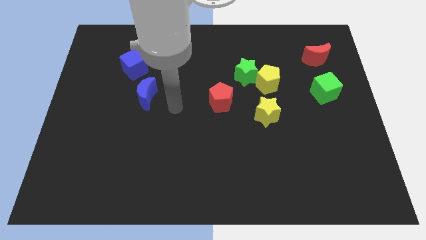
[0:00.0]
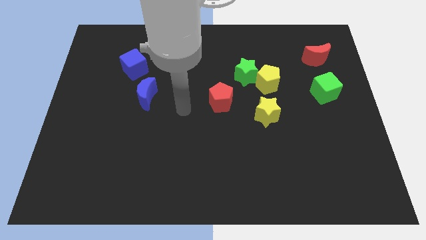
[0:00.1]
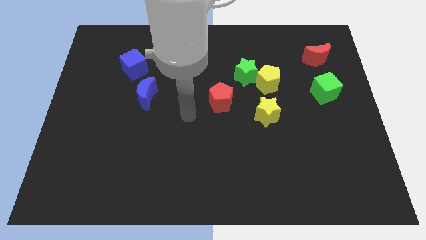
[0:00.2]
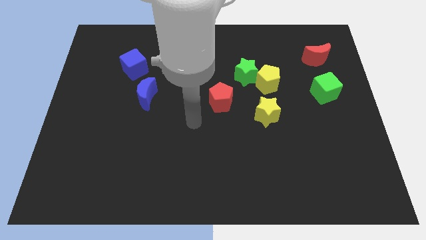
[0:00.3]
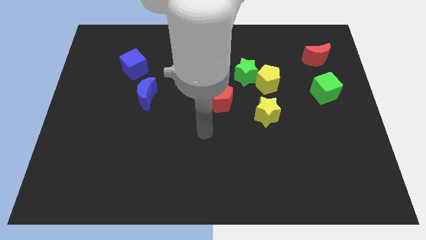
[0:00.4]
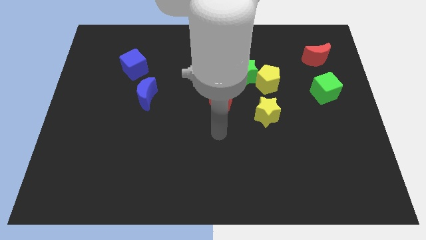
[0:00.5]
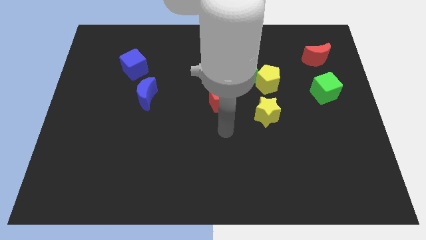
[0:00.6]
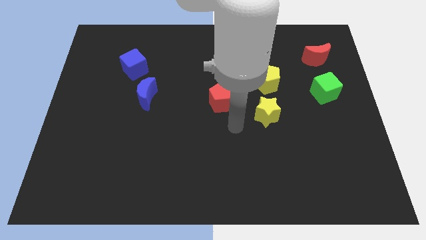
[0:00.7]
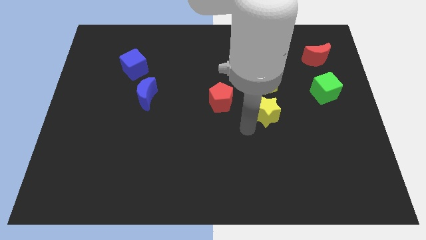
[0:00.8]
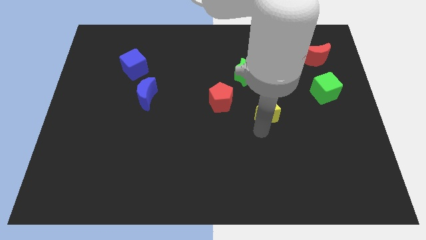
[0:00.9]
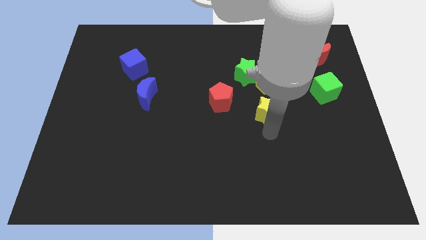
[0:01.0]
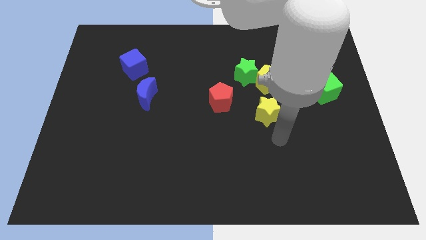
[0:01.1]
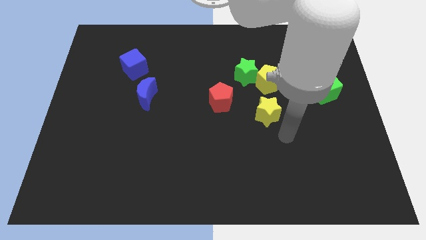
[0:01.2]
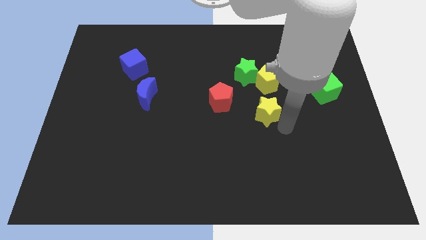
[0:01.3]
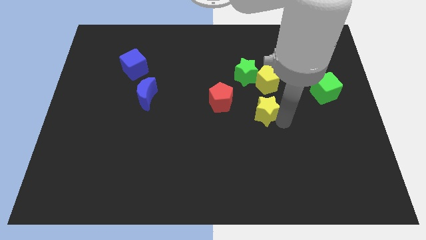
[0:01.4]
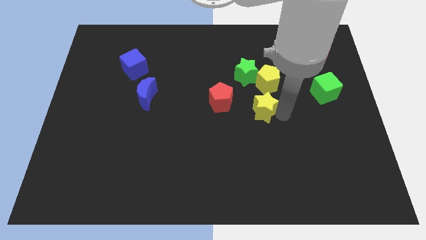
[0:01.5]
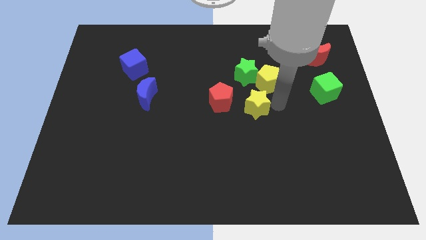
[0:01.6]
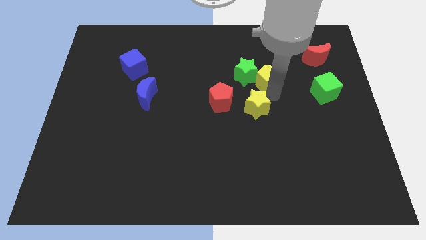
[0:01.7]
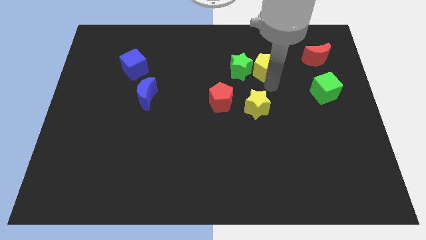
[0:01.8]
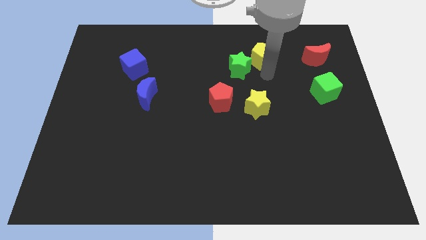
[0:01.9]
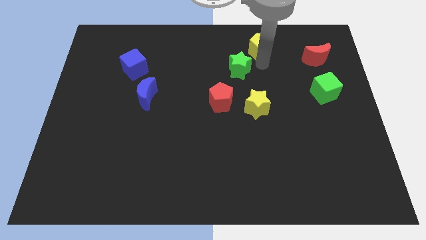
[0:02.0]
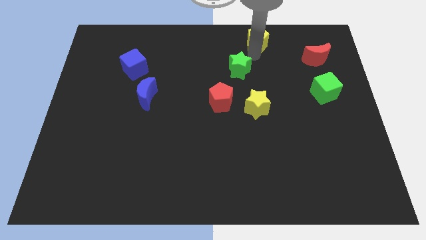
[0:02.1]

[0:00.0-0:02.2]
move the green star away from the yellow pentagon

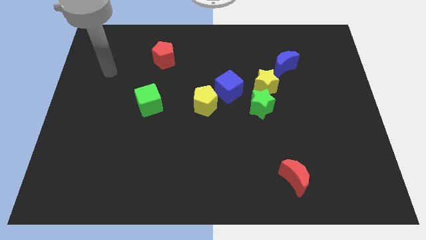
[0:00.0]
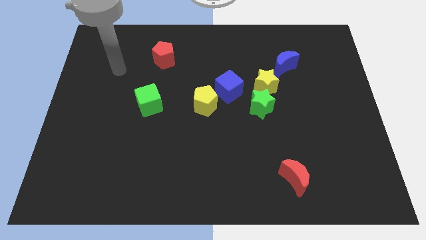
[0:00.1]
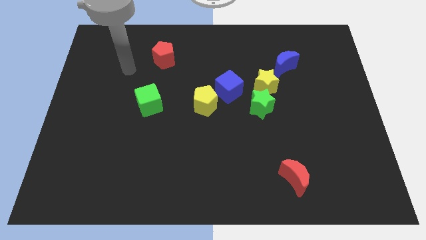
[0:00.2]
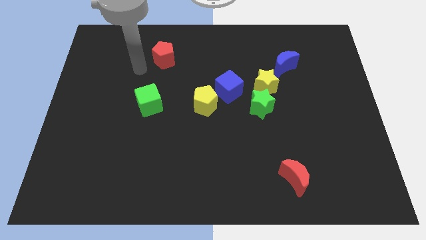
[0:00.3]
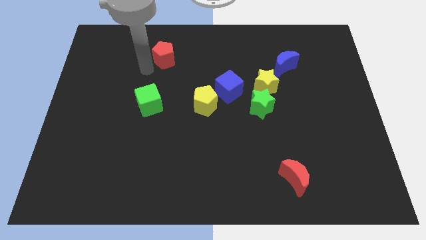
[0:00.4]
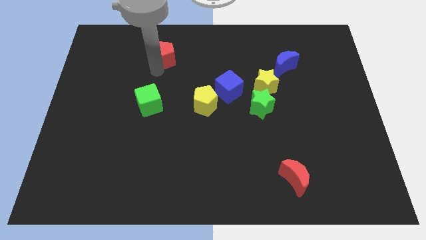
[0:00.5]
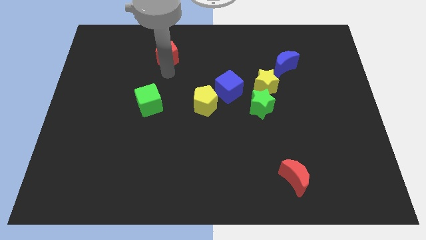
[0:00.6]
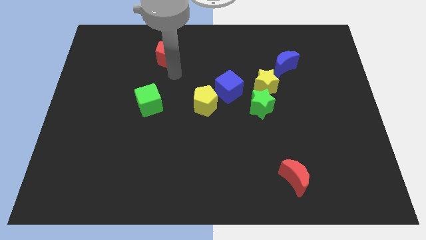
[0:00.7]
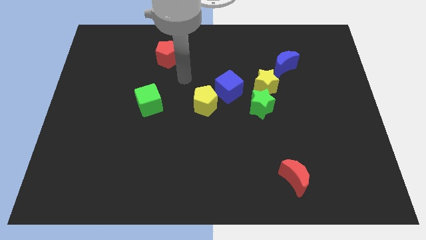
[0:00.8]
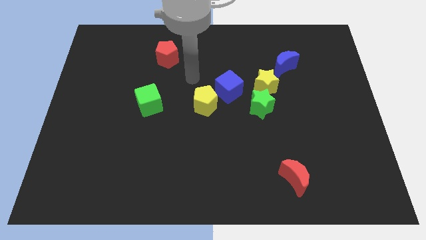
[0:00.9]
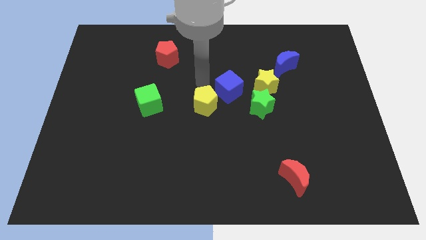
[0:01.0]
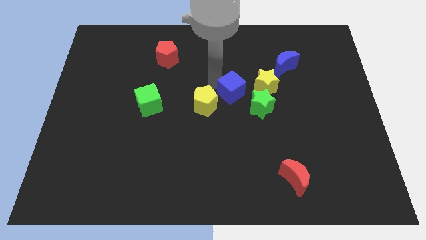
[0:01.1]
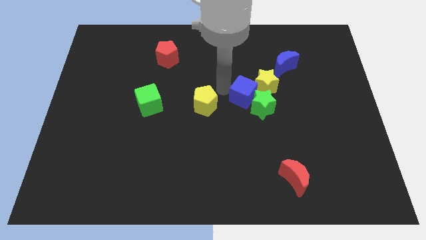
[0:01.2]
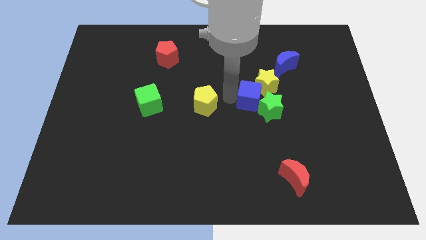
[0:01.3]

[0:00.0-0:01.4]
pull the yellow pentagon apart from the blue cube

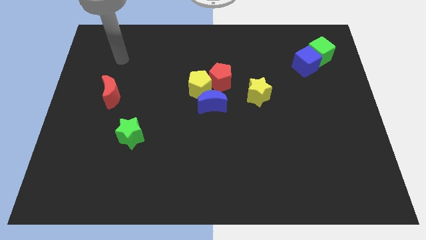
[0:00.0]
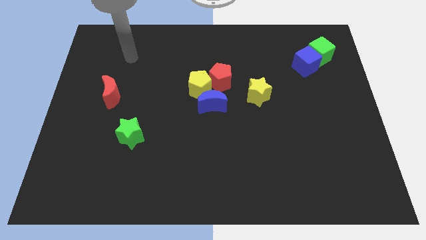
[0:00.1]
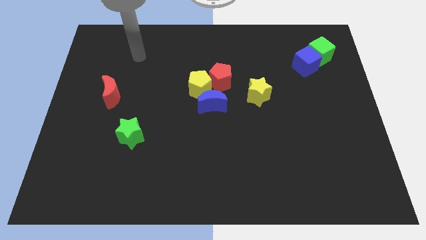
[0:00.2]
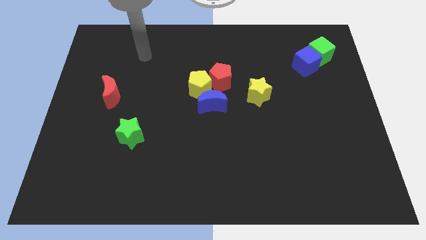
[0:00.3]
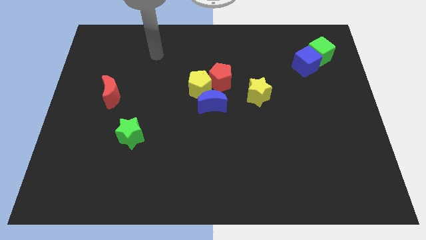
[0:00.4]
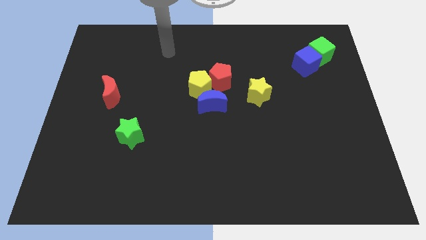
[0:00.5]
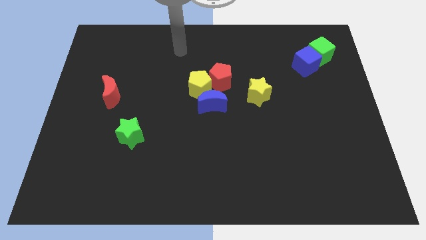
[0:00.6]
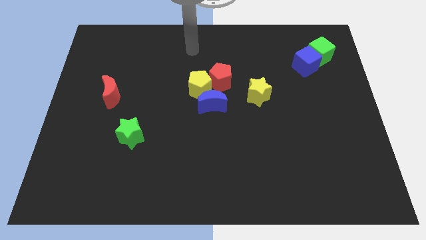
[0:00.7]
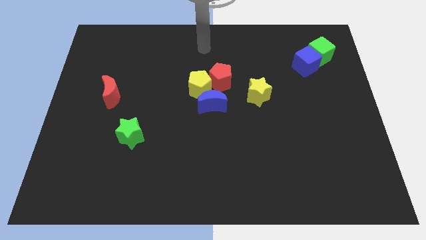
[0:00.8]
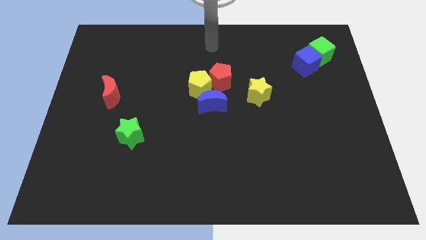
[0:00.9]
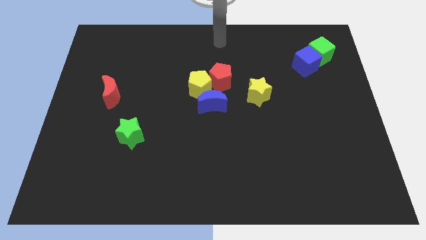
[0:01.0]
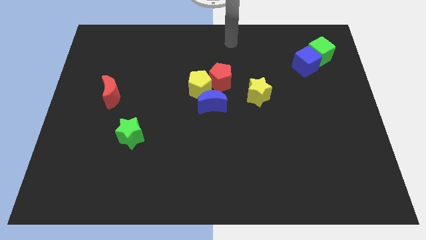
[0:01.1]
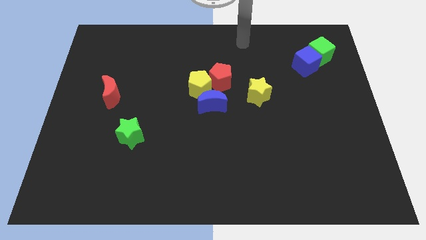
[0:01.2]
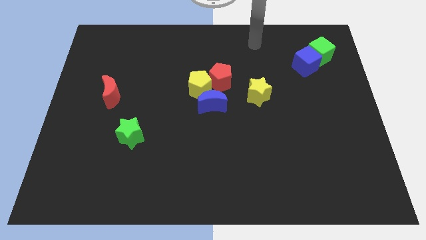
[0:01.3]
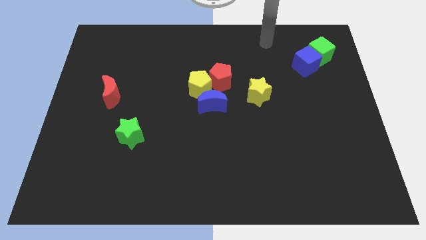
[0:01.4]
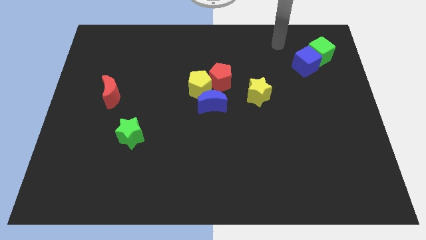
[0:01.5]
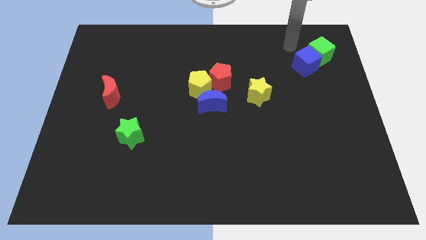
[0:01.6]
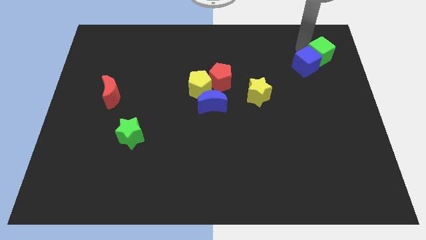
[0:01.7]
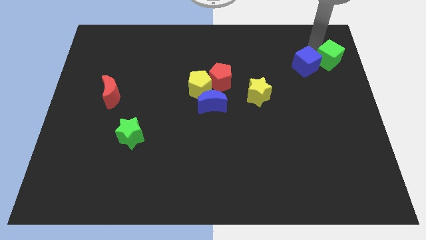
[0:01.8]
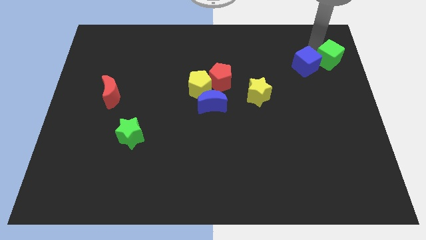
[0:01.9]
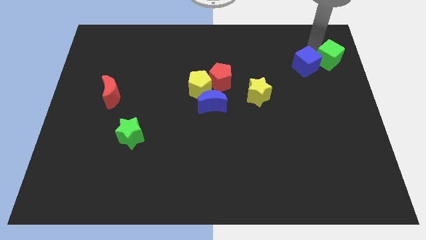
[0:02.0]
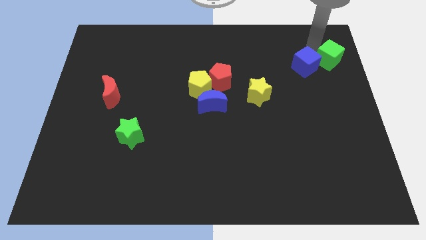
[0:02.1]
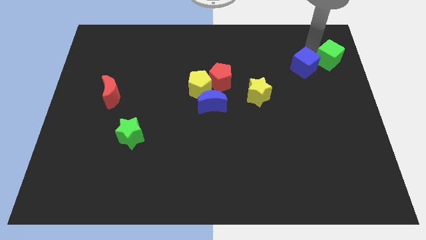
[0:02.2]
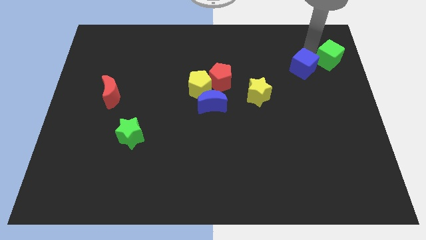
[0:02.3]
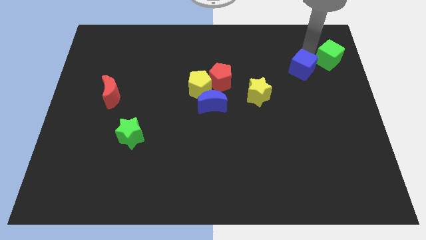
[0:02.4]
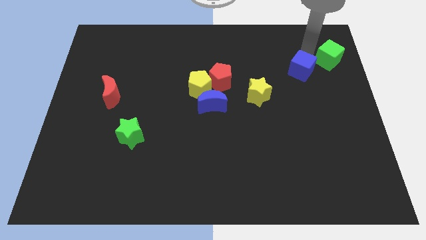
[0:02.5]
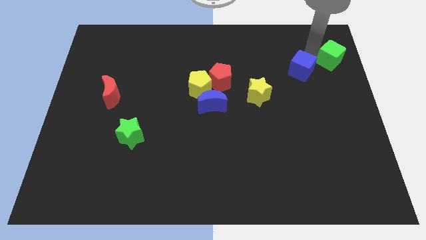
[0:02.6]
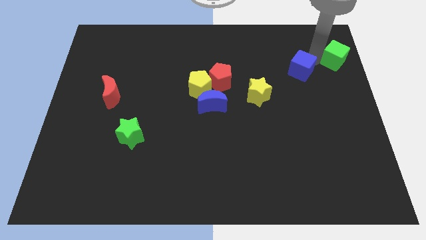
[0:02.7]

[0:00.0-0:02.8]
separate the blue cube from the green cube

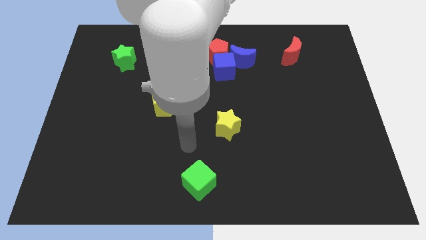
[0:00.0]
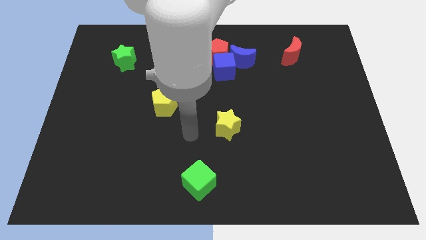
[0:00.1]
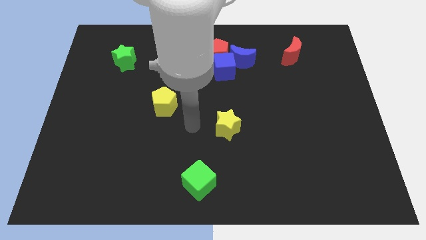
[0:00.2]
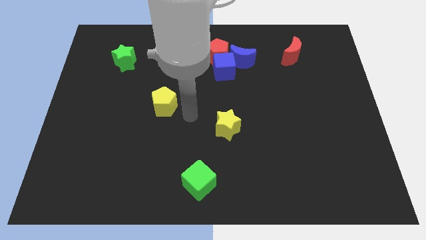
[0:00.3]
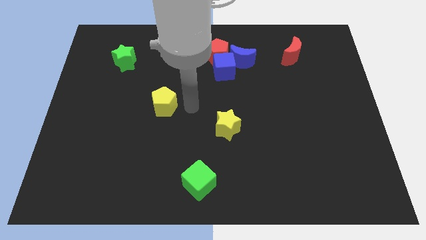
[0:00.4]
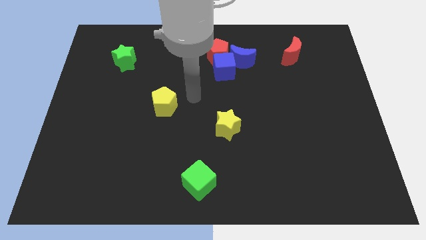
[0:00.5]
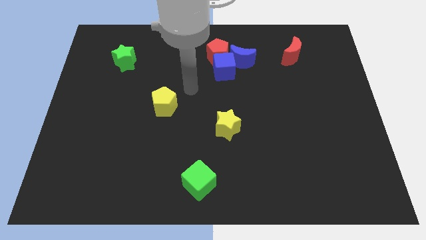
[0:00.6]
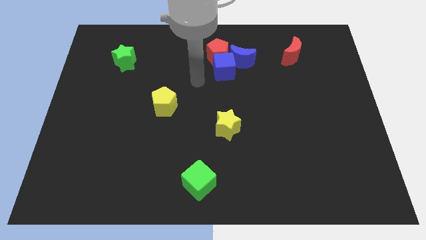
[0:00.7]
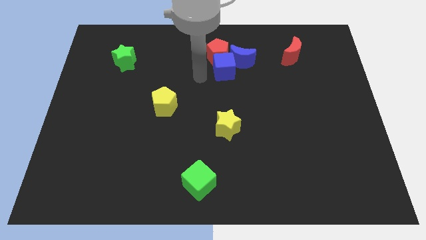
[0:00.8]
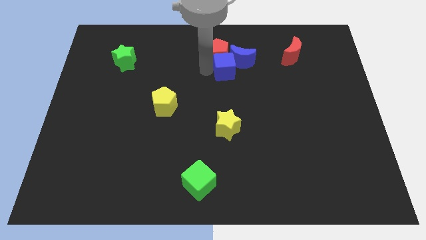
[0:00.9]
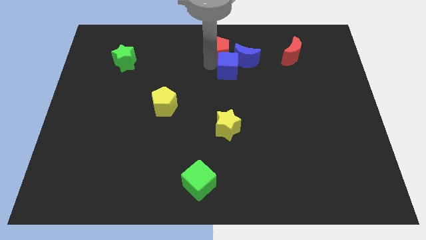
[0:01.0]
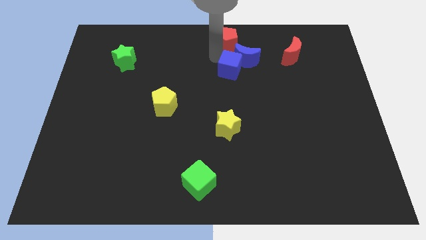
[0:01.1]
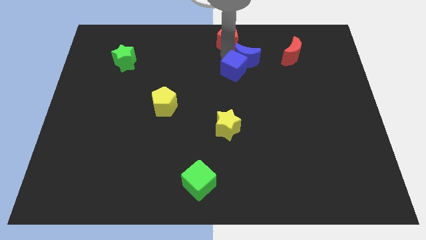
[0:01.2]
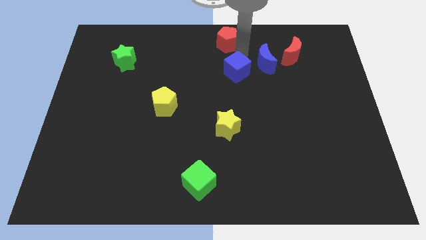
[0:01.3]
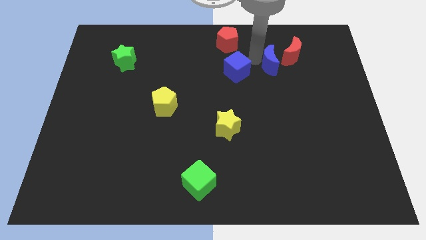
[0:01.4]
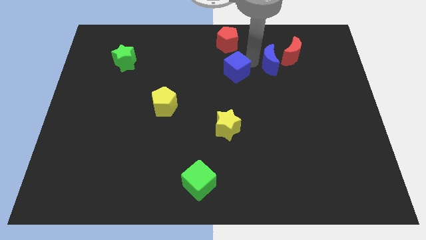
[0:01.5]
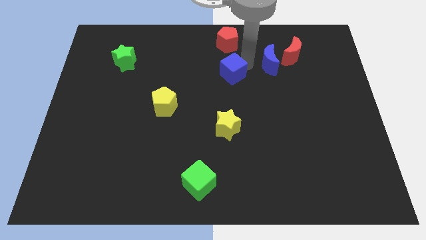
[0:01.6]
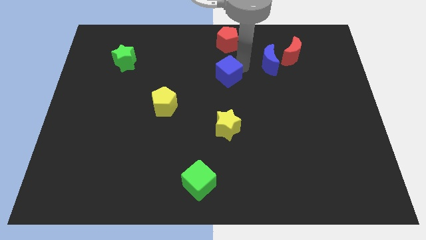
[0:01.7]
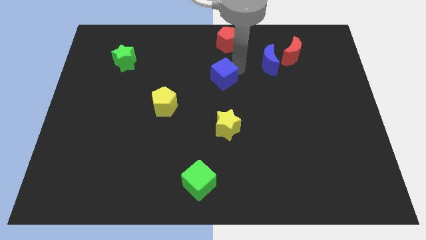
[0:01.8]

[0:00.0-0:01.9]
separate the blue cube from the red pentagon and blue moon

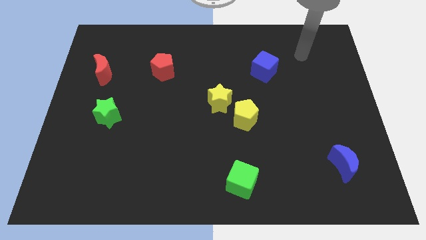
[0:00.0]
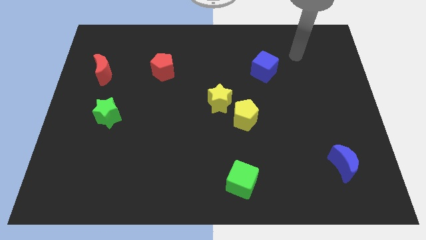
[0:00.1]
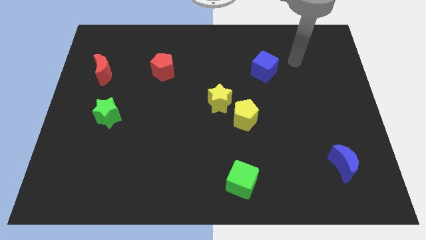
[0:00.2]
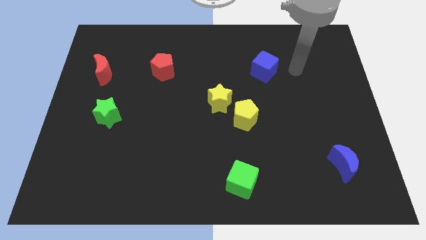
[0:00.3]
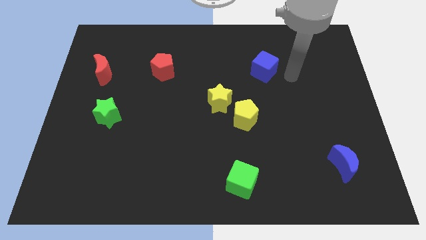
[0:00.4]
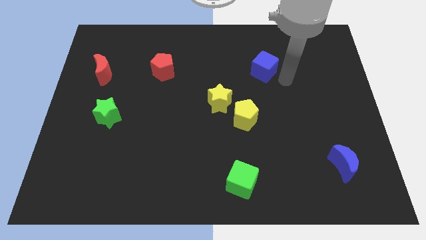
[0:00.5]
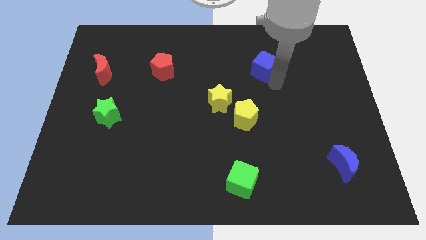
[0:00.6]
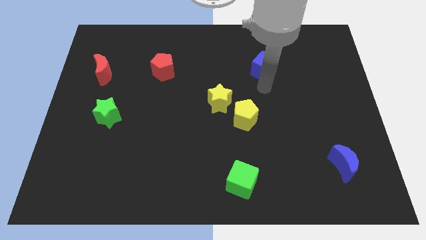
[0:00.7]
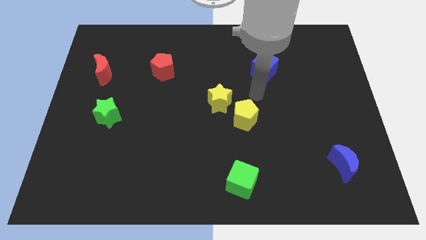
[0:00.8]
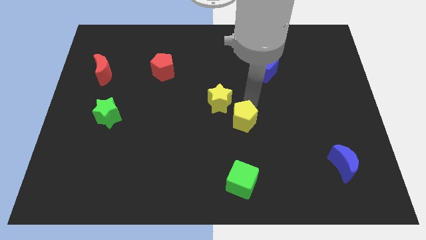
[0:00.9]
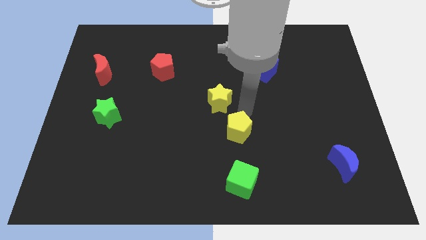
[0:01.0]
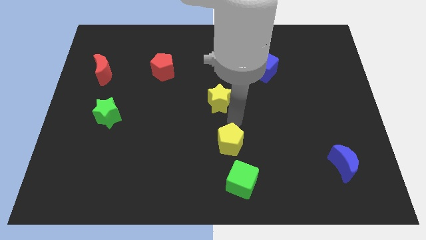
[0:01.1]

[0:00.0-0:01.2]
separate the yellow star from the yellow pentagon
